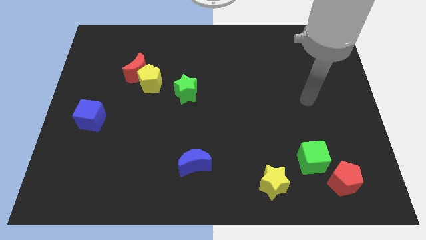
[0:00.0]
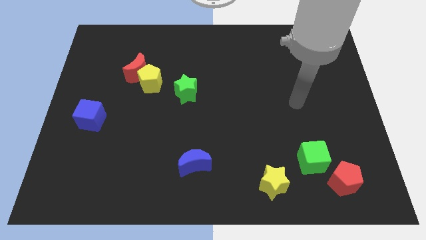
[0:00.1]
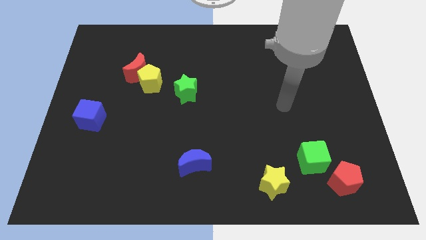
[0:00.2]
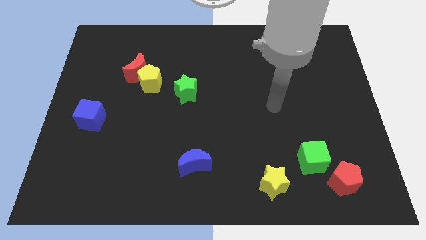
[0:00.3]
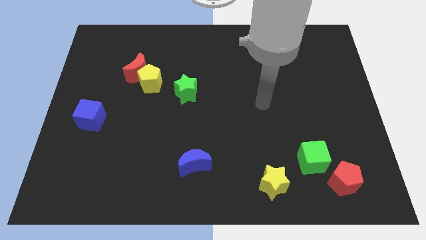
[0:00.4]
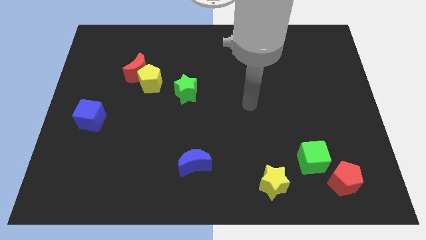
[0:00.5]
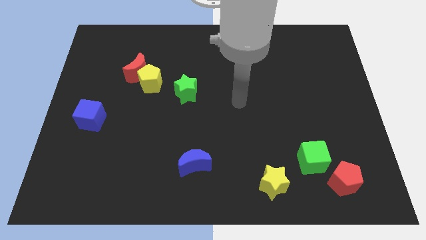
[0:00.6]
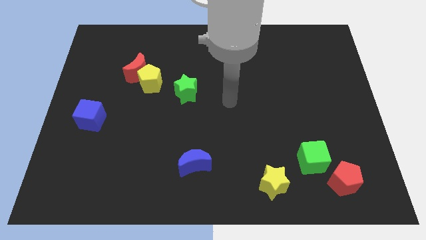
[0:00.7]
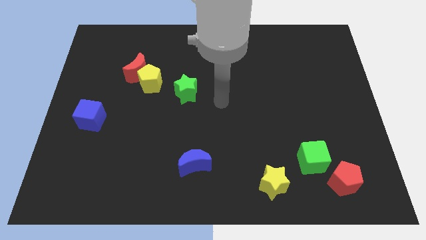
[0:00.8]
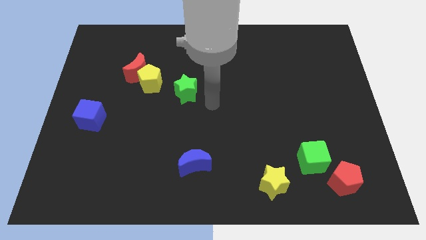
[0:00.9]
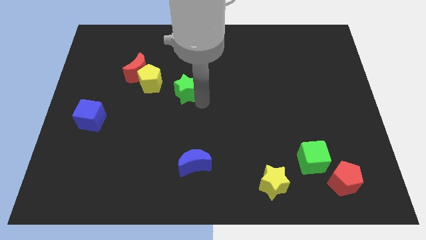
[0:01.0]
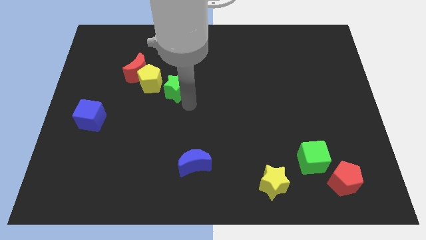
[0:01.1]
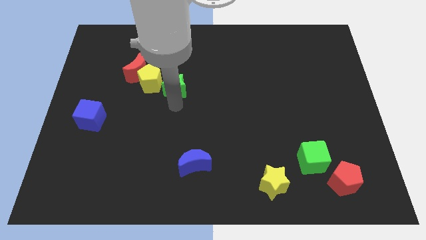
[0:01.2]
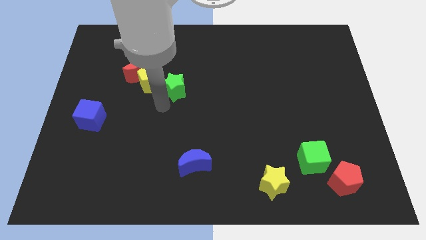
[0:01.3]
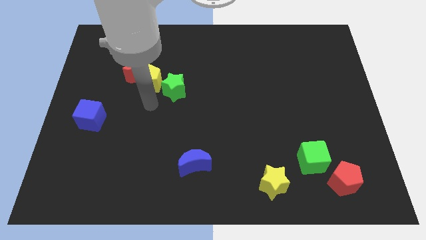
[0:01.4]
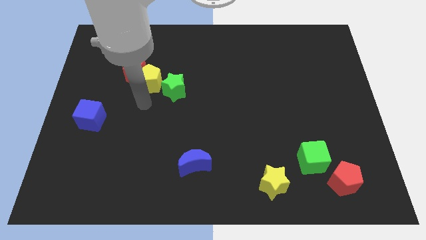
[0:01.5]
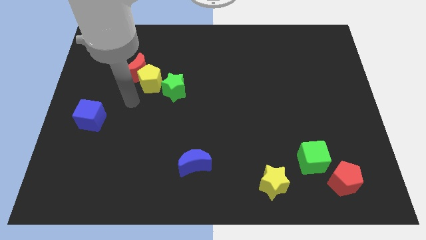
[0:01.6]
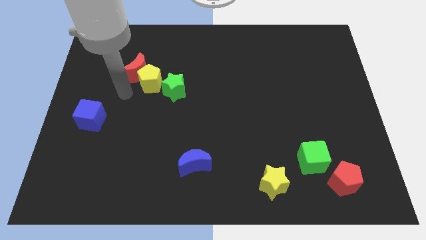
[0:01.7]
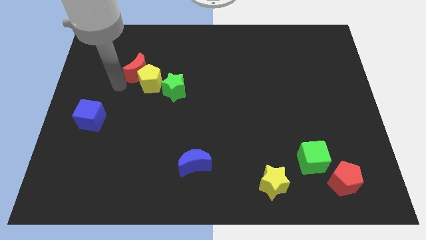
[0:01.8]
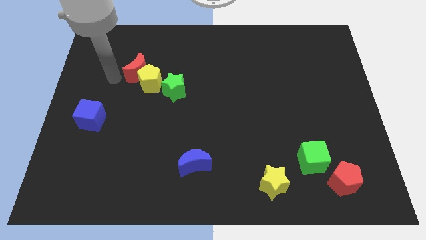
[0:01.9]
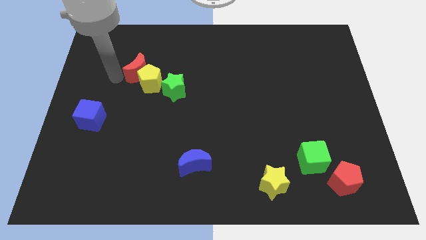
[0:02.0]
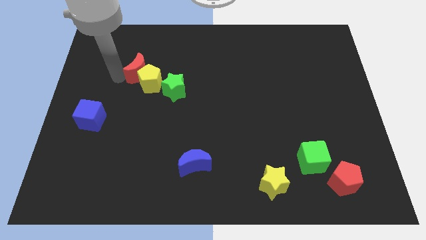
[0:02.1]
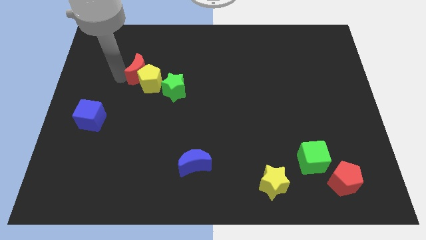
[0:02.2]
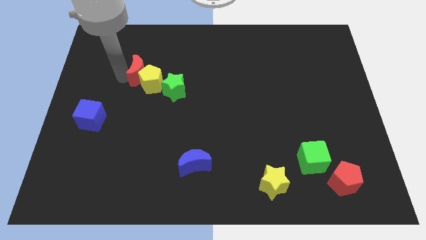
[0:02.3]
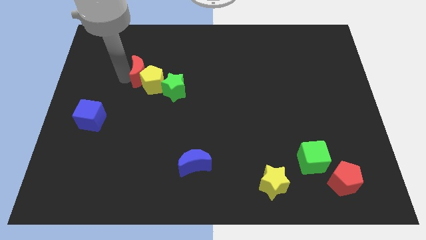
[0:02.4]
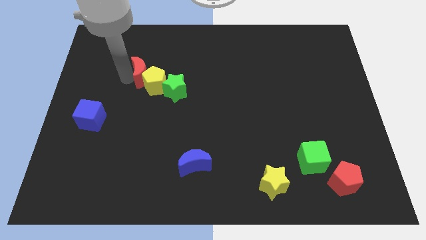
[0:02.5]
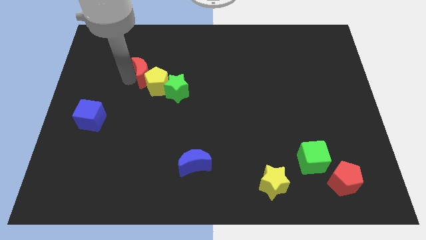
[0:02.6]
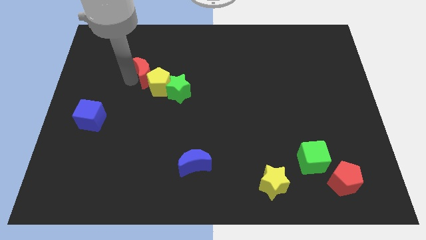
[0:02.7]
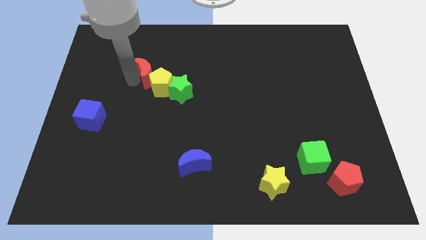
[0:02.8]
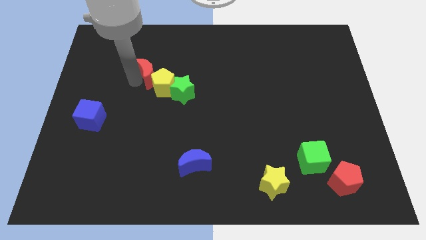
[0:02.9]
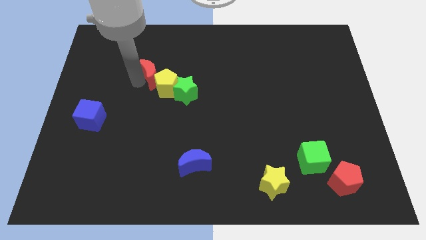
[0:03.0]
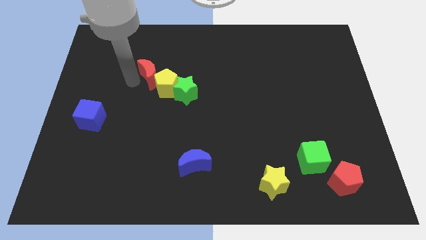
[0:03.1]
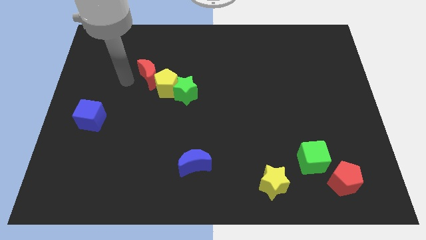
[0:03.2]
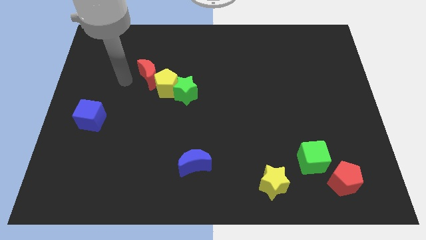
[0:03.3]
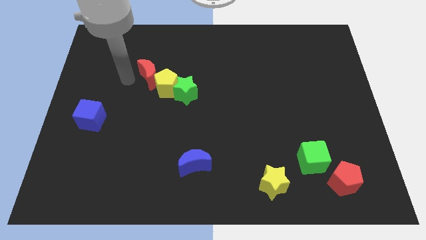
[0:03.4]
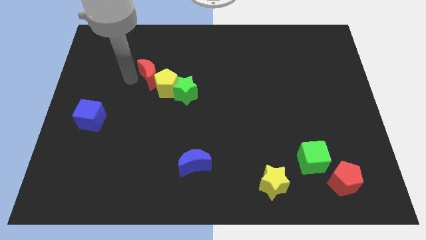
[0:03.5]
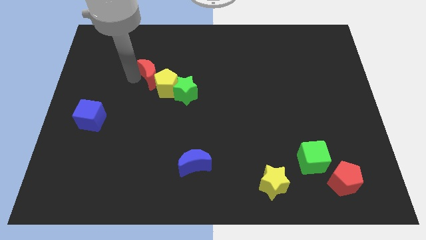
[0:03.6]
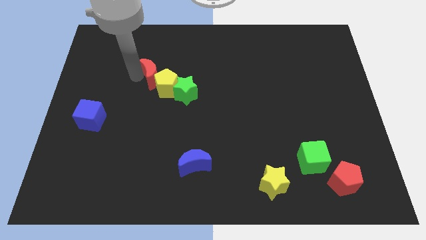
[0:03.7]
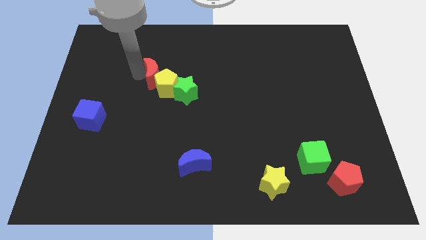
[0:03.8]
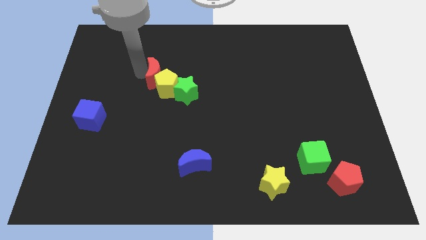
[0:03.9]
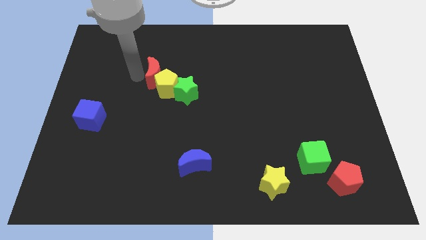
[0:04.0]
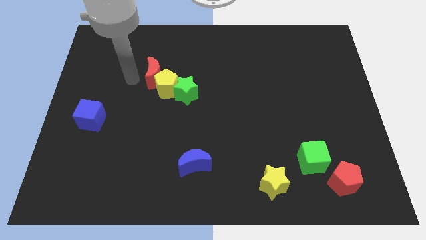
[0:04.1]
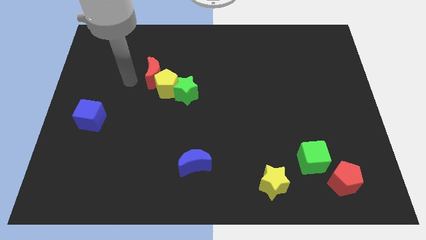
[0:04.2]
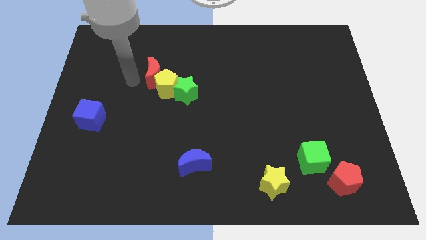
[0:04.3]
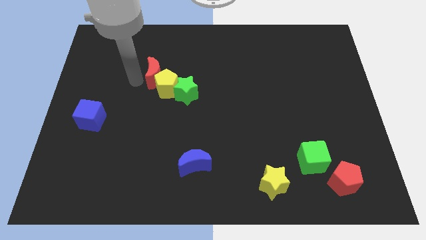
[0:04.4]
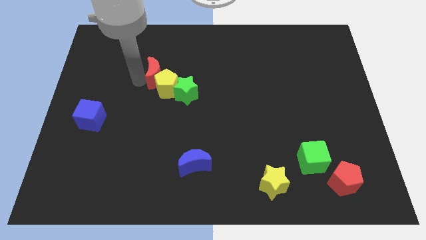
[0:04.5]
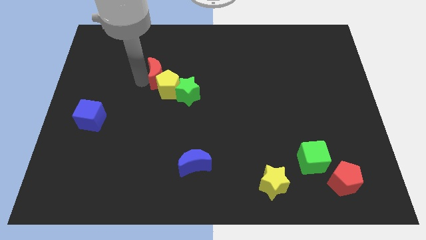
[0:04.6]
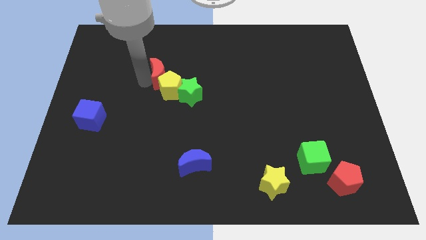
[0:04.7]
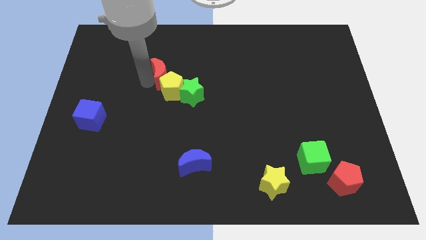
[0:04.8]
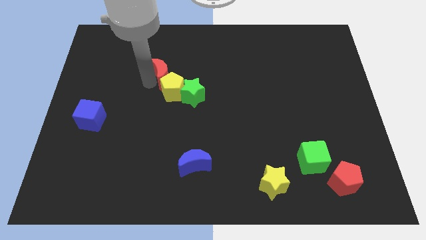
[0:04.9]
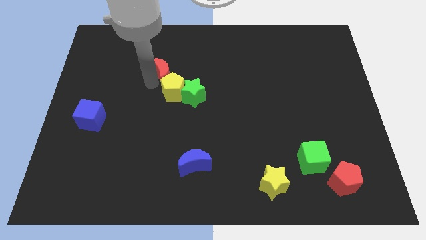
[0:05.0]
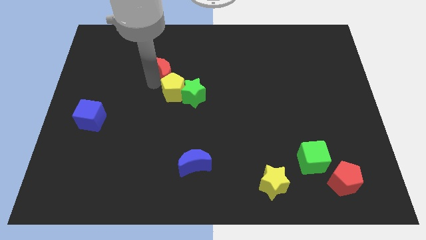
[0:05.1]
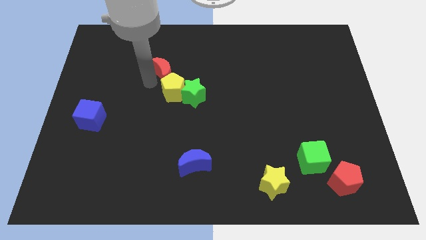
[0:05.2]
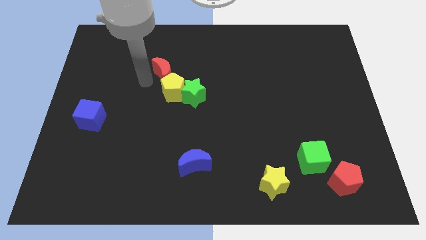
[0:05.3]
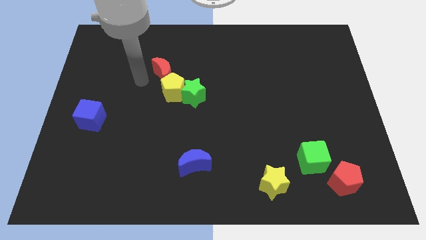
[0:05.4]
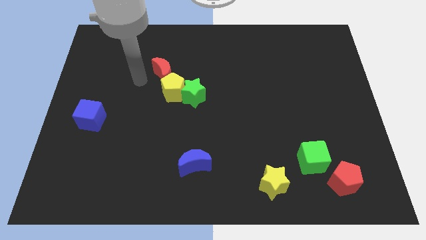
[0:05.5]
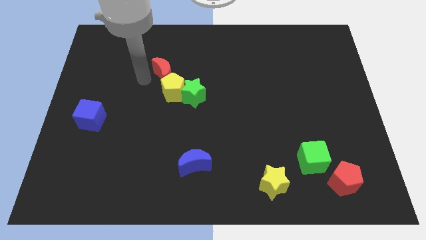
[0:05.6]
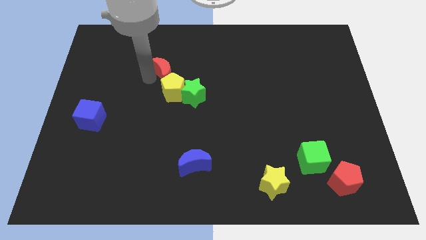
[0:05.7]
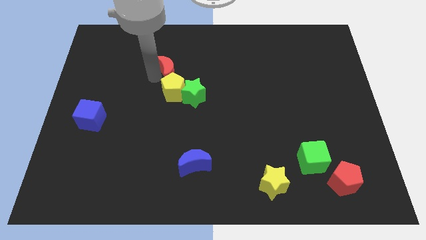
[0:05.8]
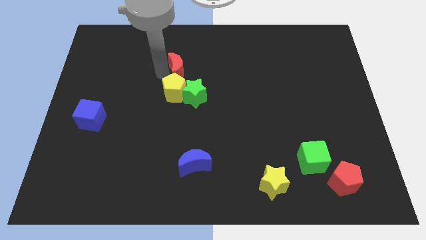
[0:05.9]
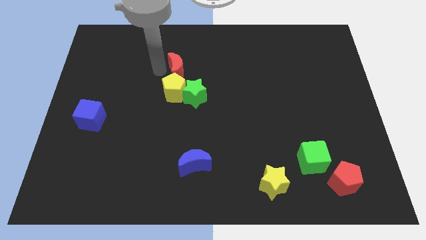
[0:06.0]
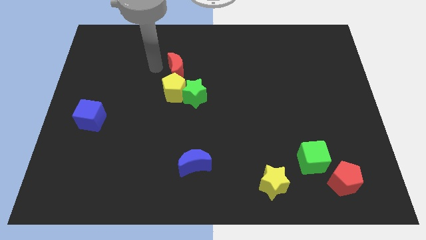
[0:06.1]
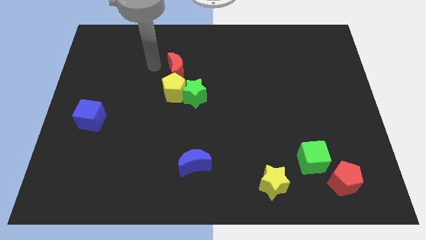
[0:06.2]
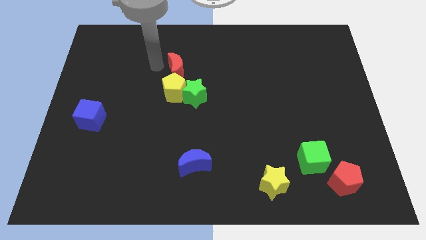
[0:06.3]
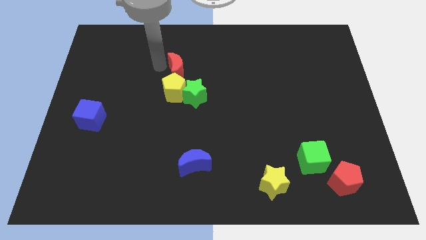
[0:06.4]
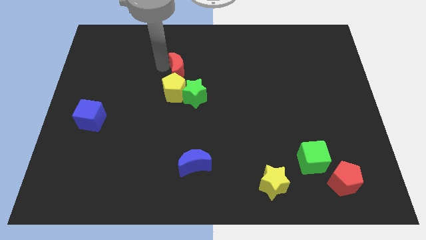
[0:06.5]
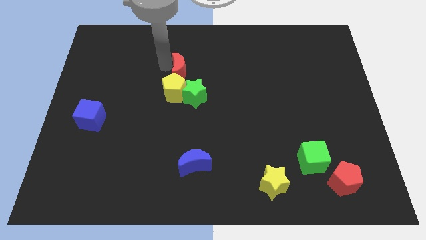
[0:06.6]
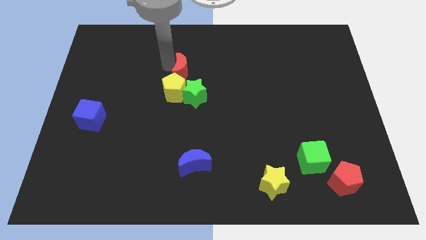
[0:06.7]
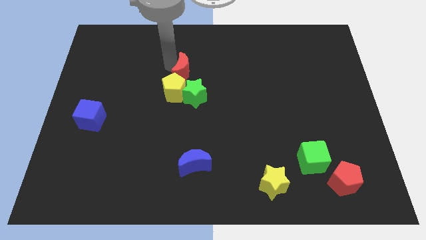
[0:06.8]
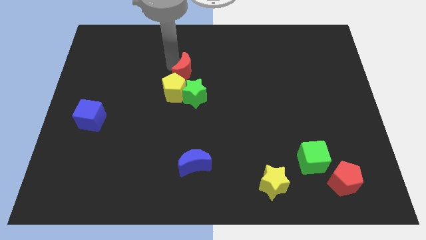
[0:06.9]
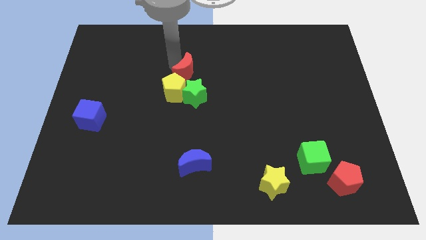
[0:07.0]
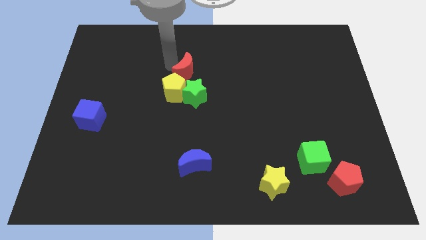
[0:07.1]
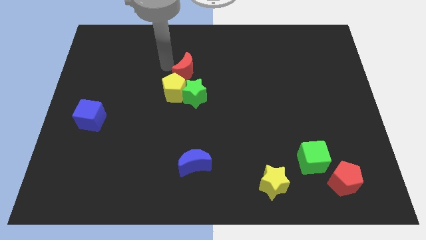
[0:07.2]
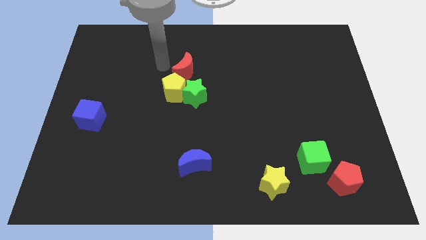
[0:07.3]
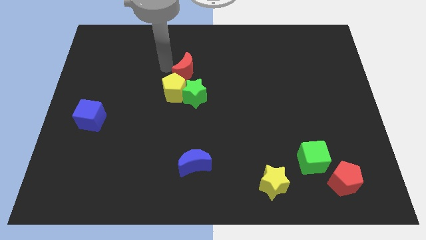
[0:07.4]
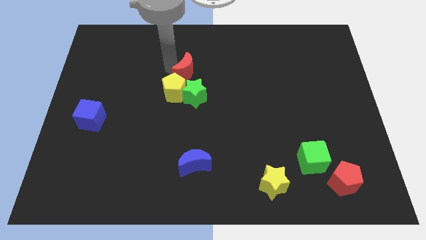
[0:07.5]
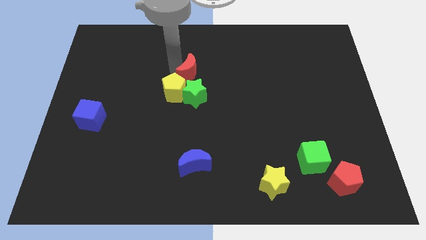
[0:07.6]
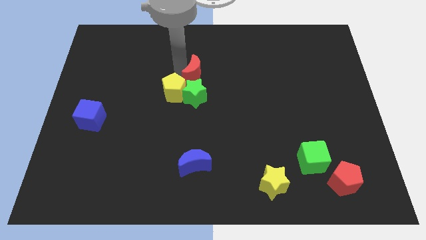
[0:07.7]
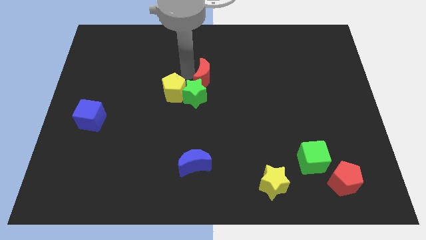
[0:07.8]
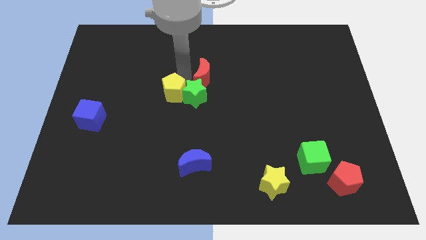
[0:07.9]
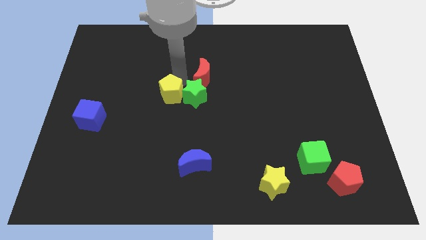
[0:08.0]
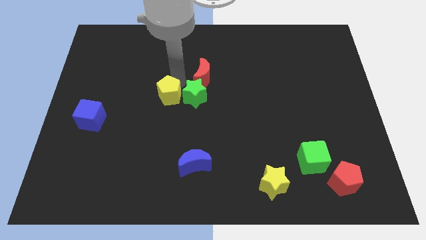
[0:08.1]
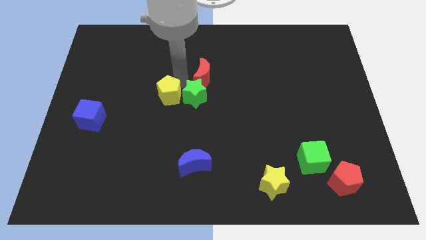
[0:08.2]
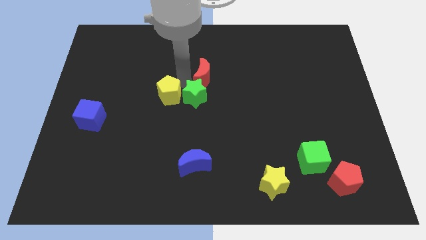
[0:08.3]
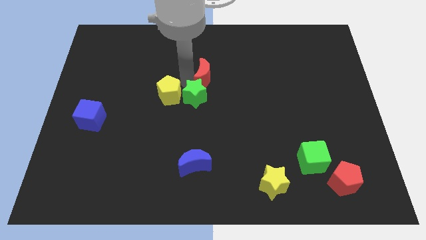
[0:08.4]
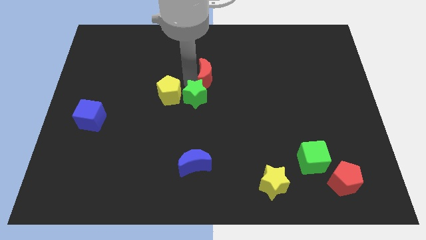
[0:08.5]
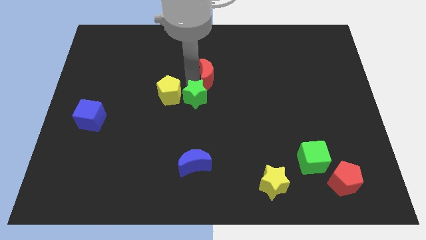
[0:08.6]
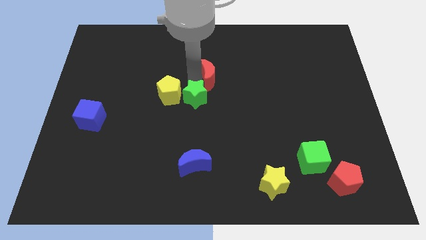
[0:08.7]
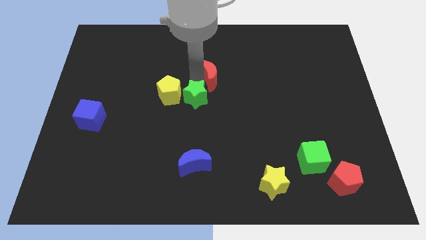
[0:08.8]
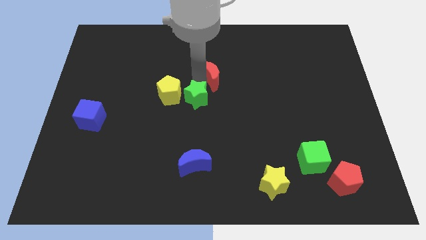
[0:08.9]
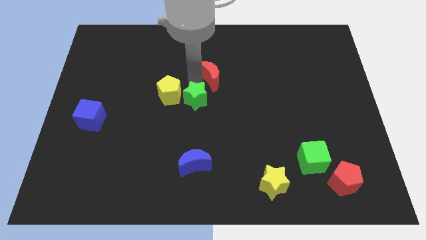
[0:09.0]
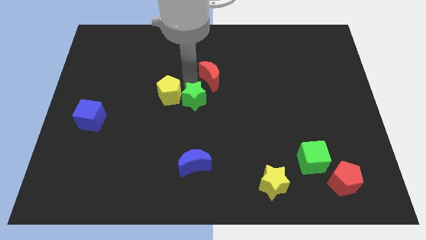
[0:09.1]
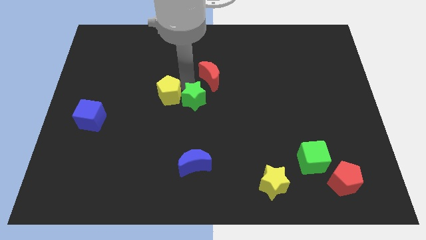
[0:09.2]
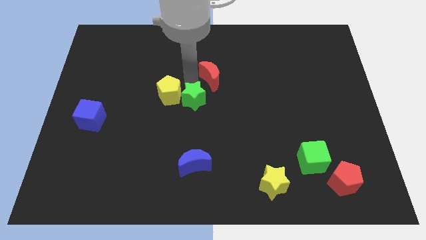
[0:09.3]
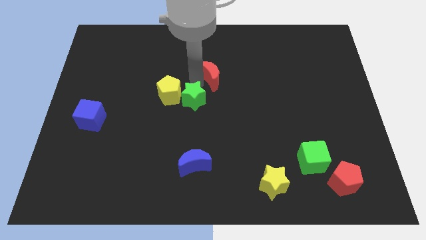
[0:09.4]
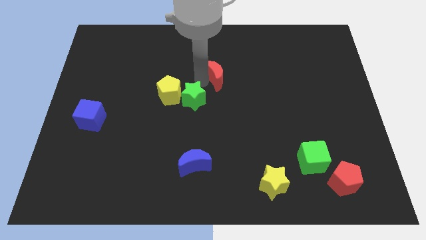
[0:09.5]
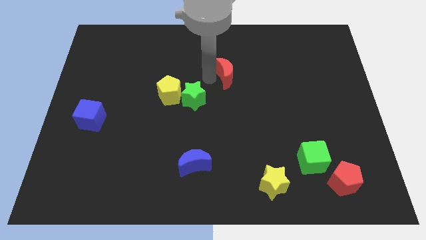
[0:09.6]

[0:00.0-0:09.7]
slide the red moon right
